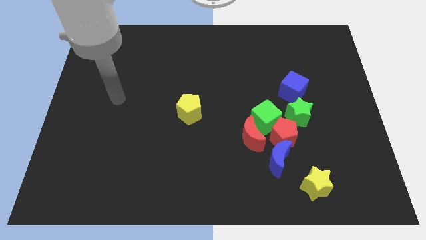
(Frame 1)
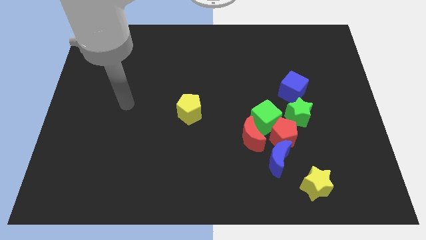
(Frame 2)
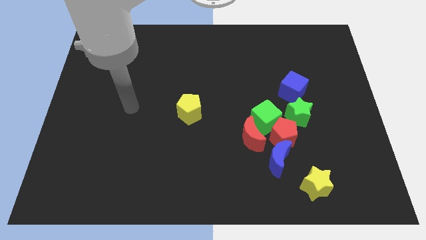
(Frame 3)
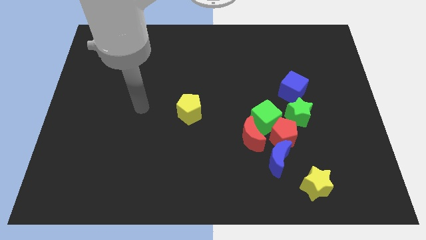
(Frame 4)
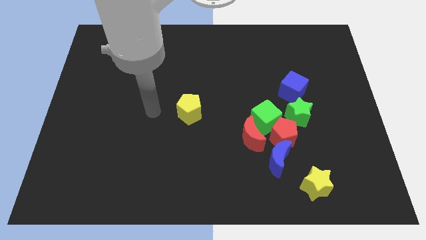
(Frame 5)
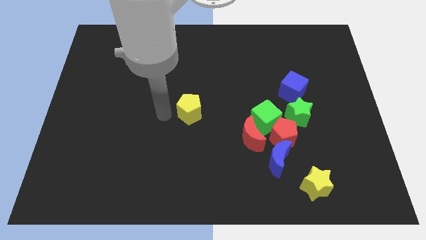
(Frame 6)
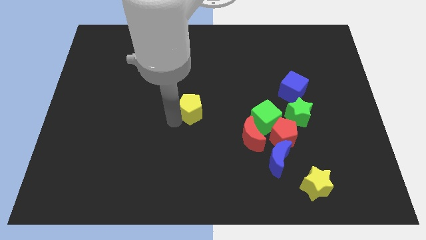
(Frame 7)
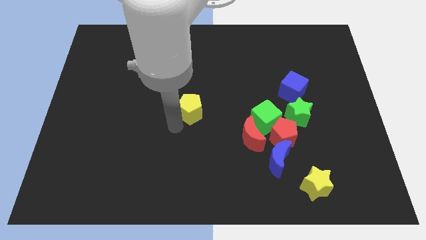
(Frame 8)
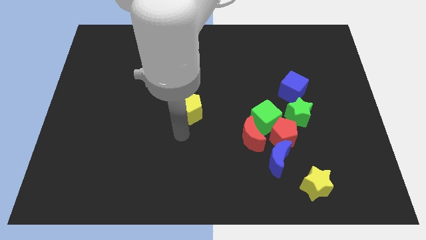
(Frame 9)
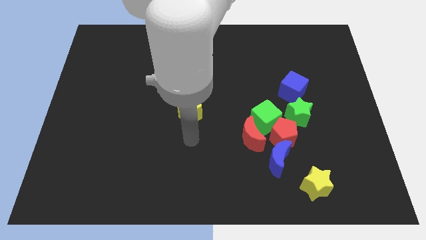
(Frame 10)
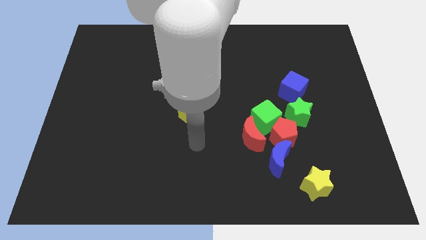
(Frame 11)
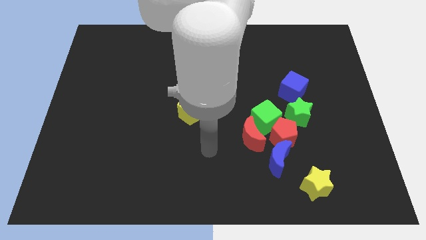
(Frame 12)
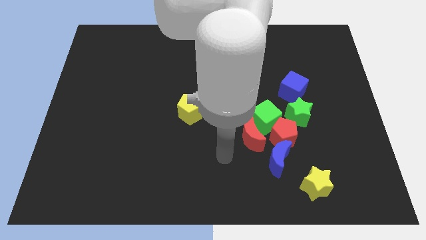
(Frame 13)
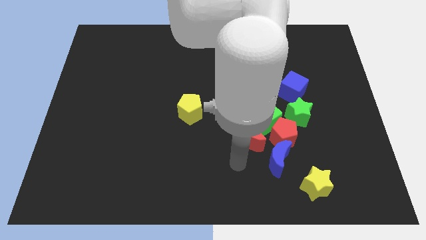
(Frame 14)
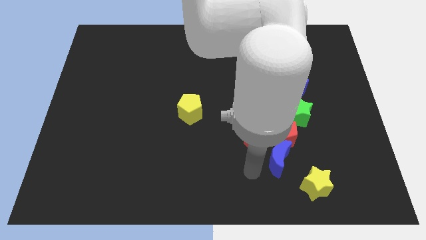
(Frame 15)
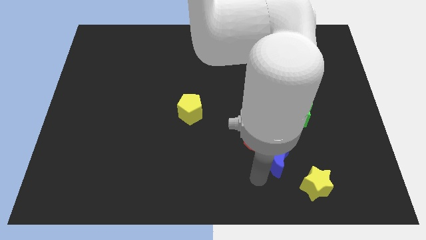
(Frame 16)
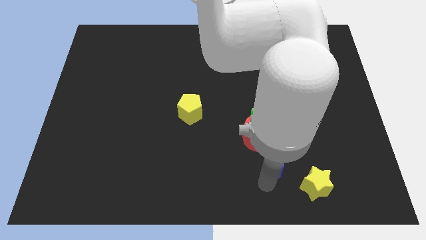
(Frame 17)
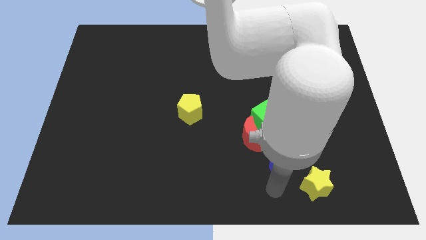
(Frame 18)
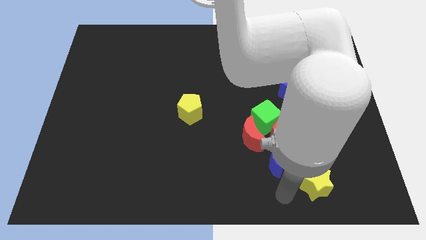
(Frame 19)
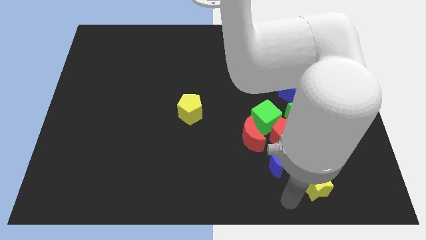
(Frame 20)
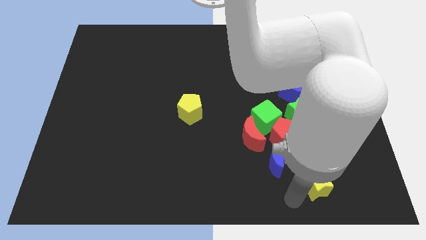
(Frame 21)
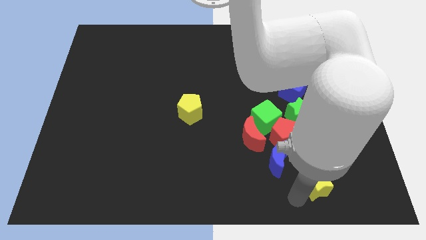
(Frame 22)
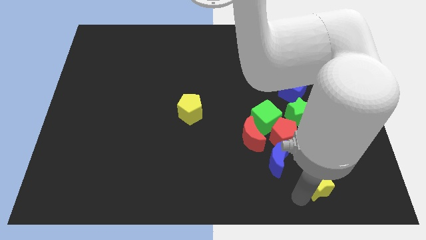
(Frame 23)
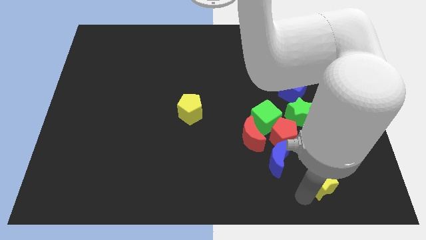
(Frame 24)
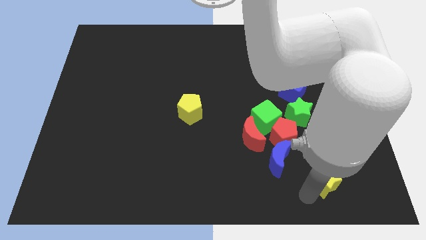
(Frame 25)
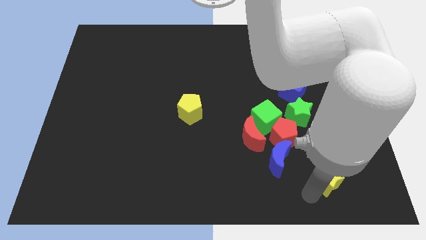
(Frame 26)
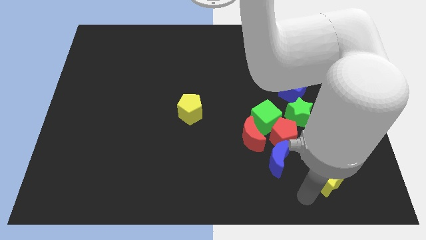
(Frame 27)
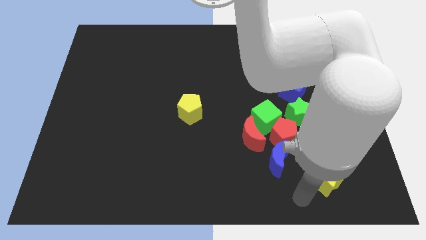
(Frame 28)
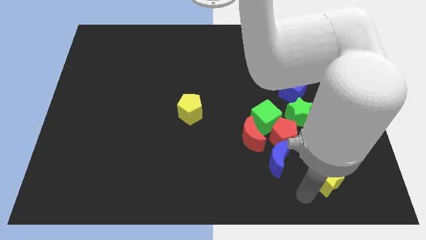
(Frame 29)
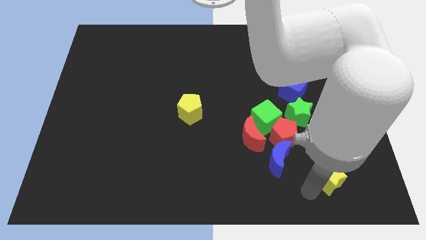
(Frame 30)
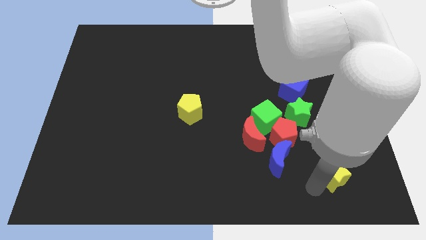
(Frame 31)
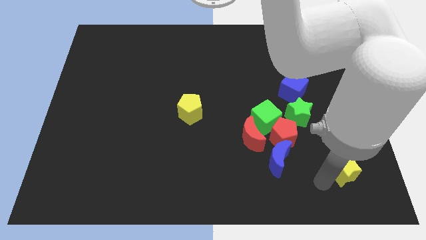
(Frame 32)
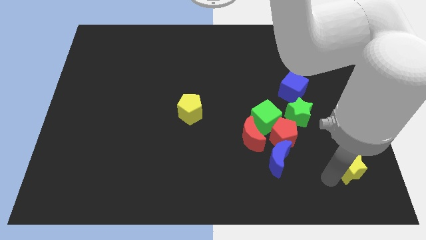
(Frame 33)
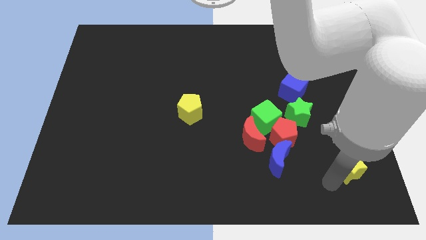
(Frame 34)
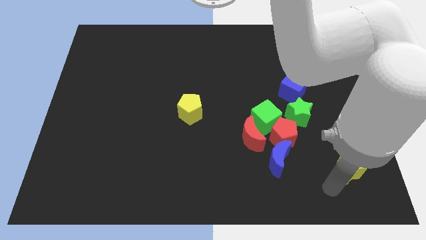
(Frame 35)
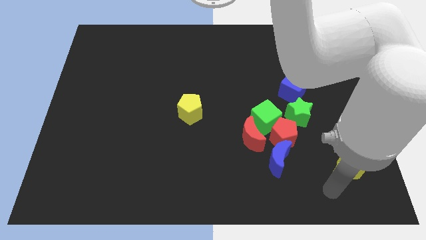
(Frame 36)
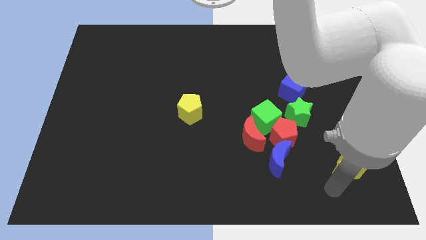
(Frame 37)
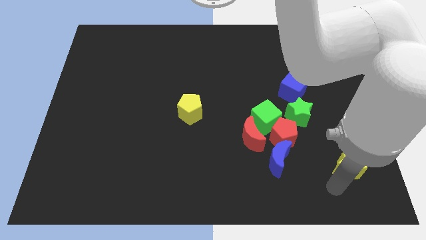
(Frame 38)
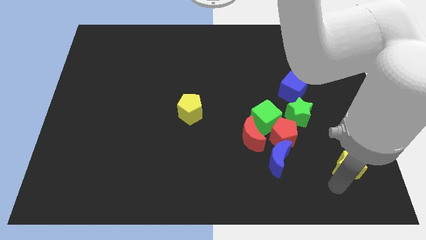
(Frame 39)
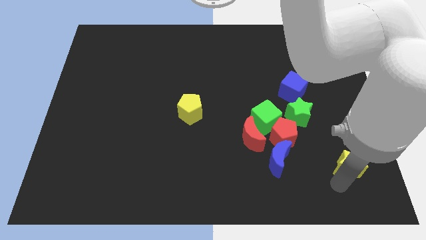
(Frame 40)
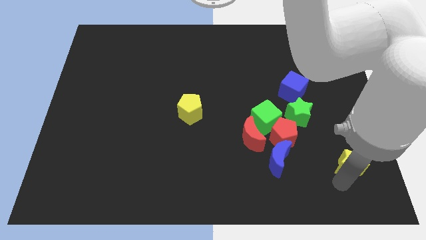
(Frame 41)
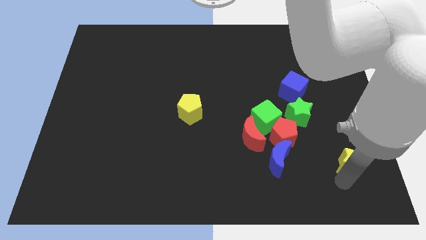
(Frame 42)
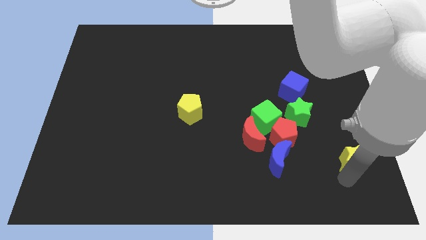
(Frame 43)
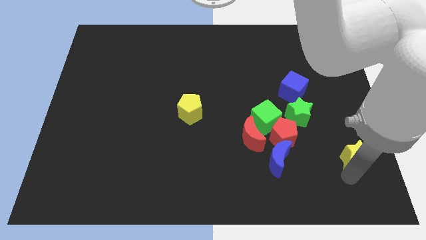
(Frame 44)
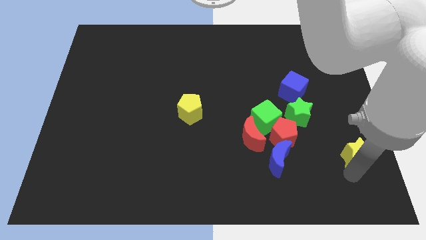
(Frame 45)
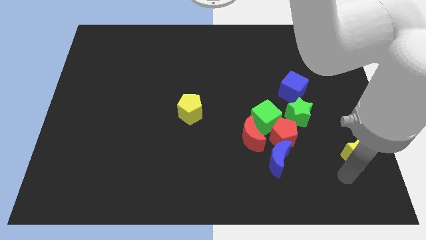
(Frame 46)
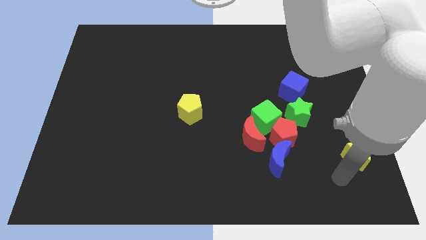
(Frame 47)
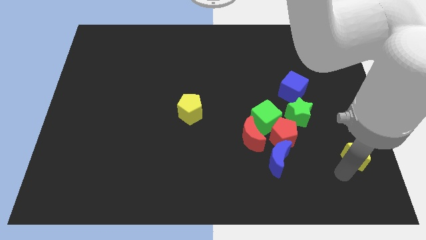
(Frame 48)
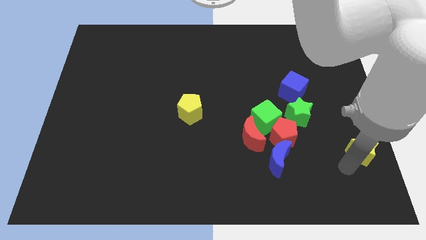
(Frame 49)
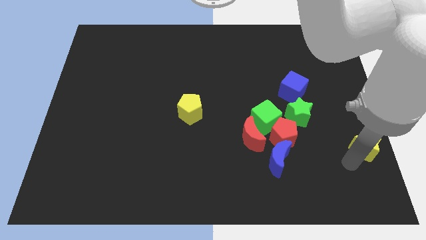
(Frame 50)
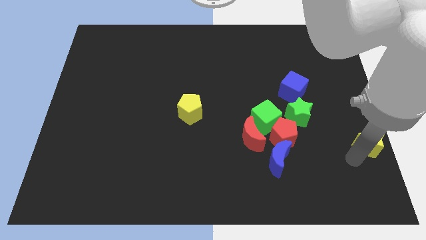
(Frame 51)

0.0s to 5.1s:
push the yellow star to the center right
